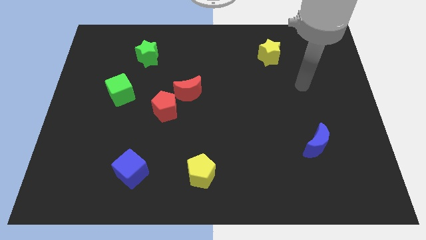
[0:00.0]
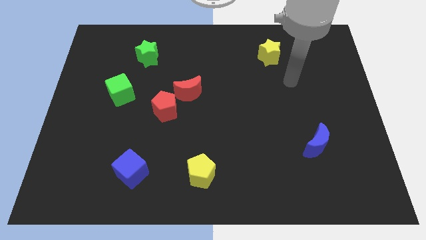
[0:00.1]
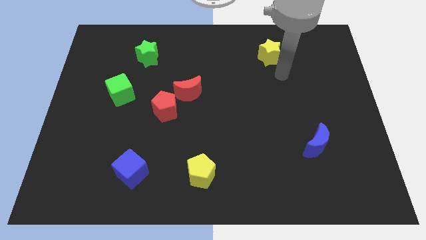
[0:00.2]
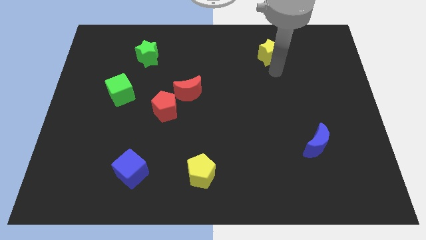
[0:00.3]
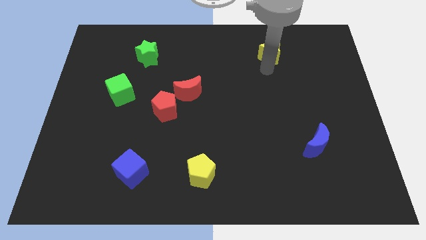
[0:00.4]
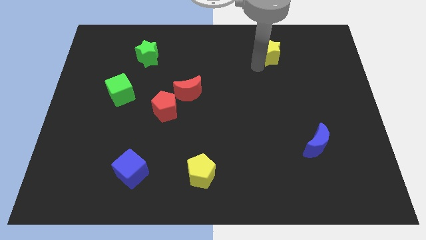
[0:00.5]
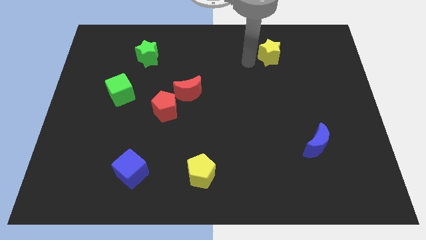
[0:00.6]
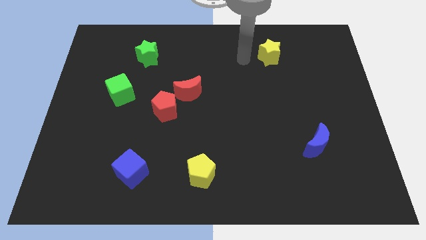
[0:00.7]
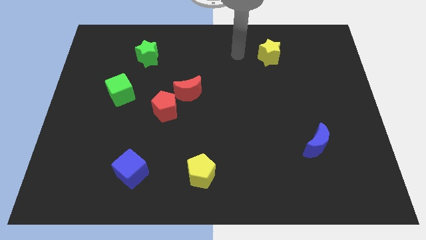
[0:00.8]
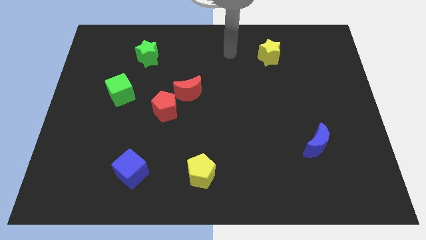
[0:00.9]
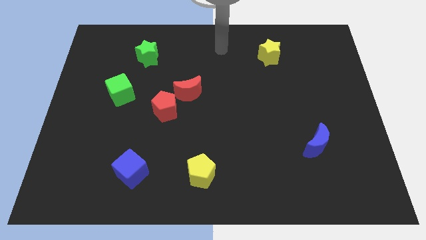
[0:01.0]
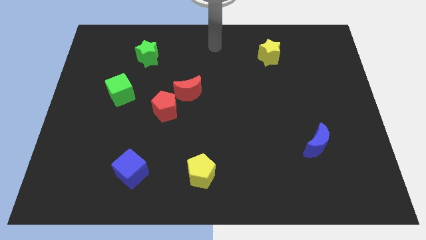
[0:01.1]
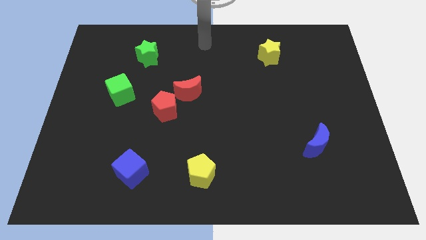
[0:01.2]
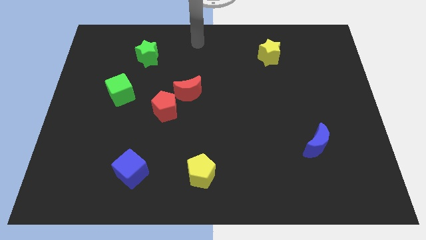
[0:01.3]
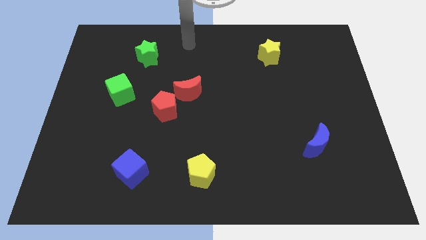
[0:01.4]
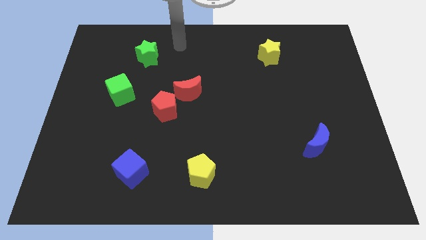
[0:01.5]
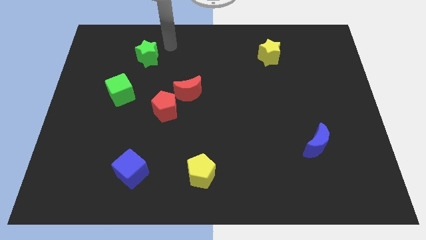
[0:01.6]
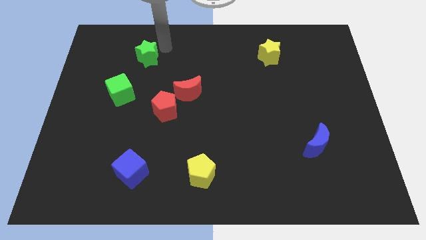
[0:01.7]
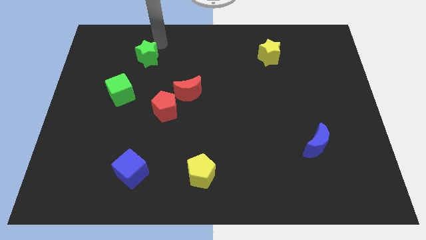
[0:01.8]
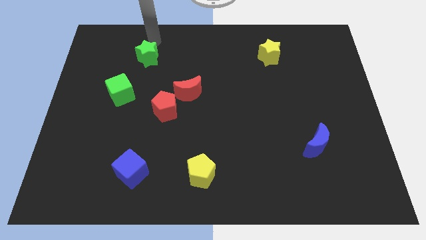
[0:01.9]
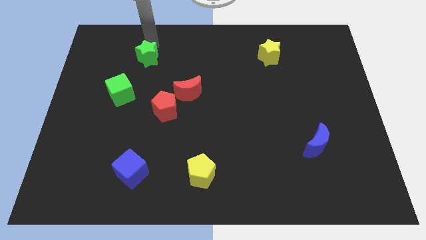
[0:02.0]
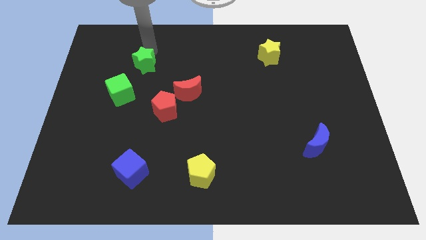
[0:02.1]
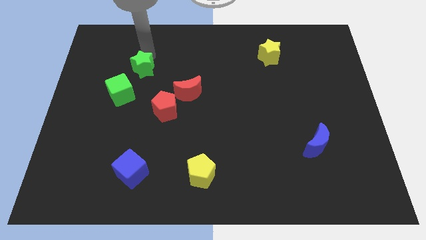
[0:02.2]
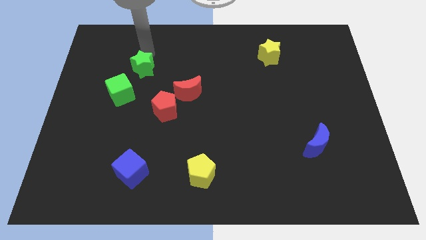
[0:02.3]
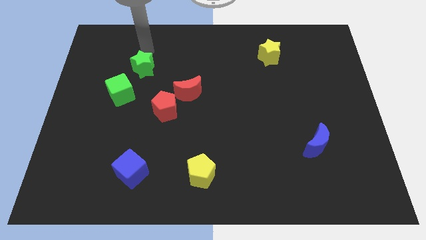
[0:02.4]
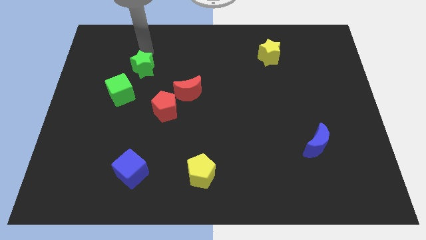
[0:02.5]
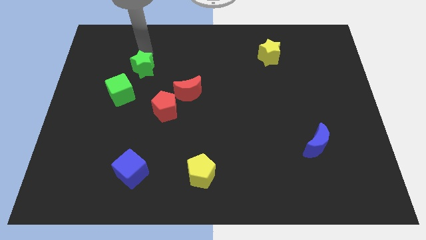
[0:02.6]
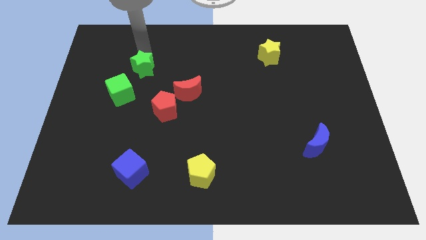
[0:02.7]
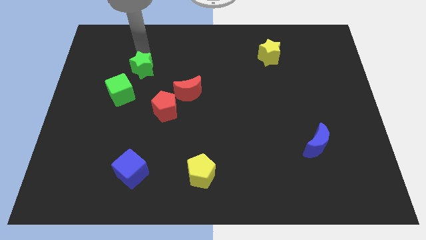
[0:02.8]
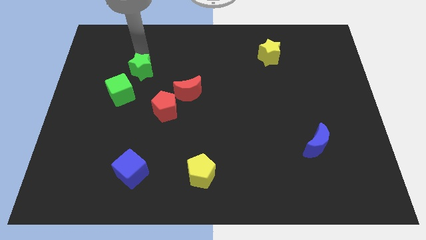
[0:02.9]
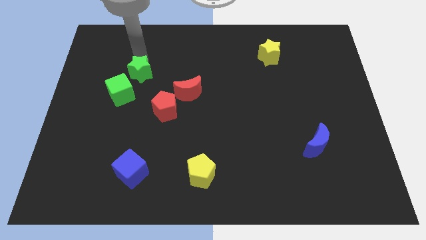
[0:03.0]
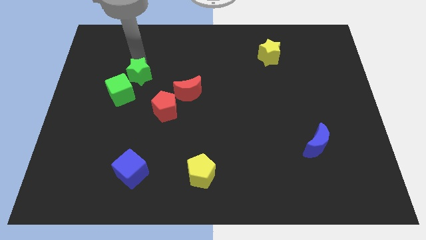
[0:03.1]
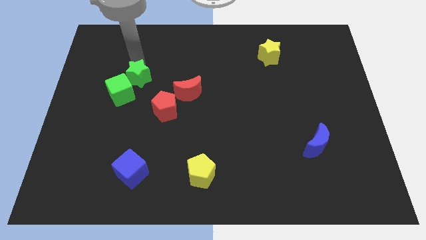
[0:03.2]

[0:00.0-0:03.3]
slide the green star a little bit down

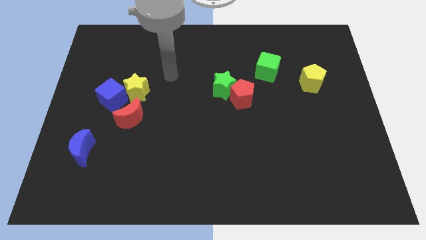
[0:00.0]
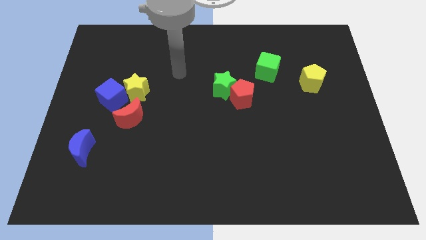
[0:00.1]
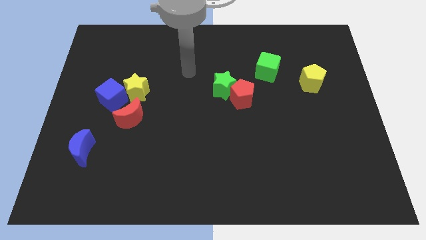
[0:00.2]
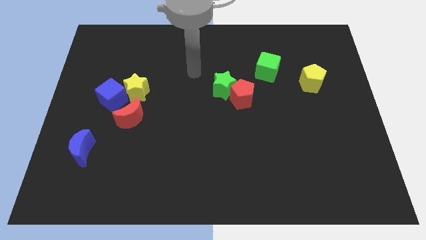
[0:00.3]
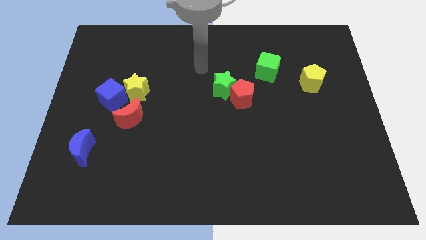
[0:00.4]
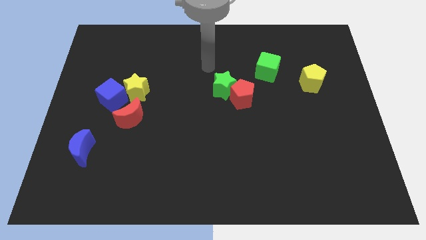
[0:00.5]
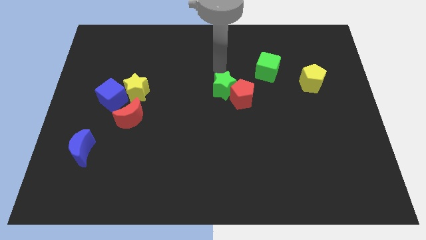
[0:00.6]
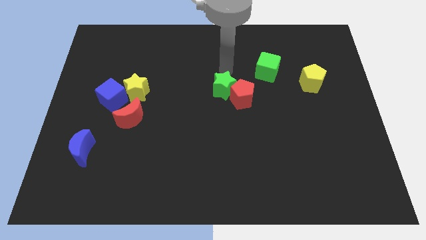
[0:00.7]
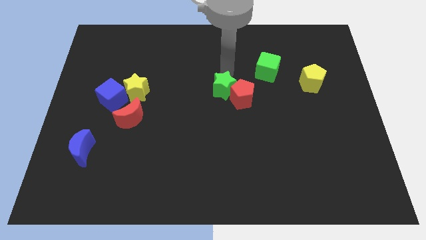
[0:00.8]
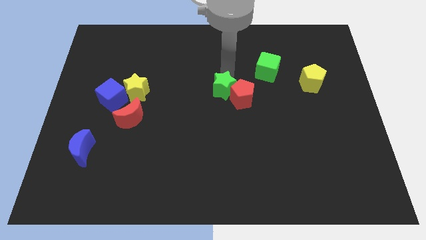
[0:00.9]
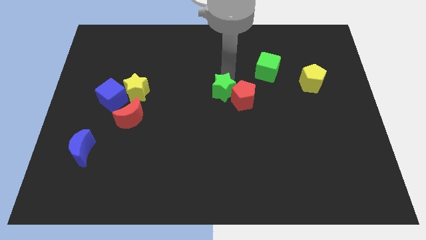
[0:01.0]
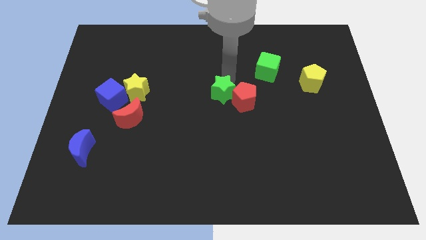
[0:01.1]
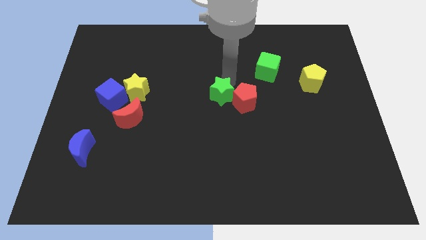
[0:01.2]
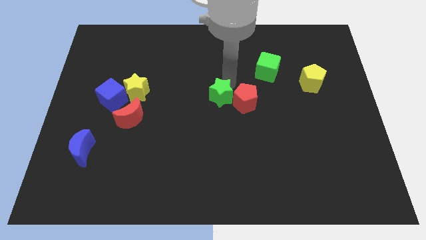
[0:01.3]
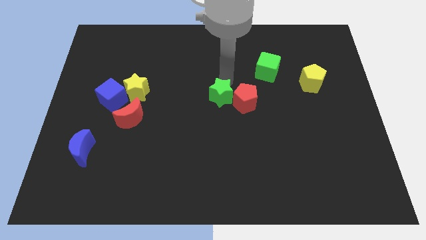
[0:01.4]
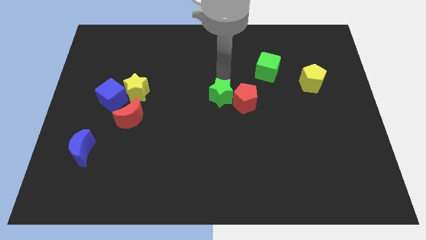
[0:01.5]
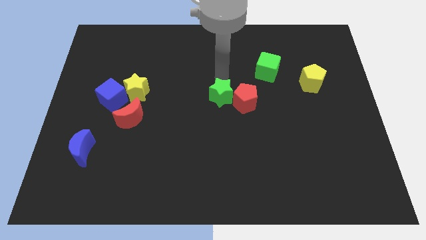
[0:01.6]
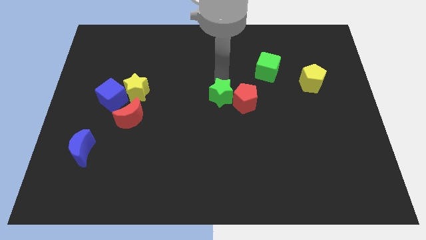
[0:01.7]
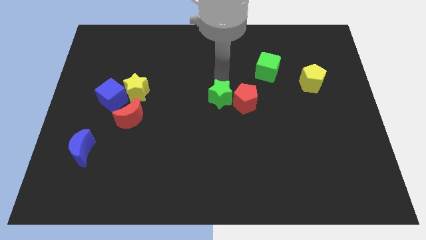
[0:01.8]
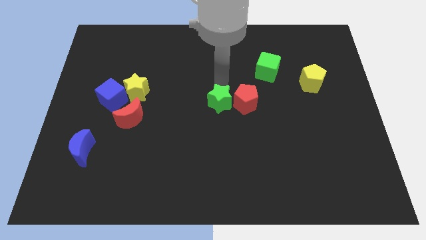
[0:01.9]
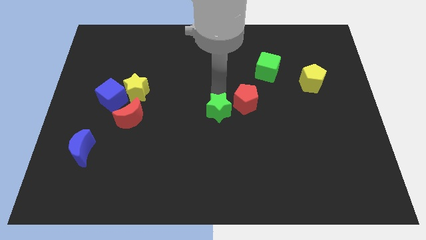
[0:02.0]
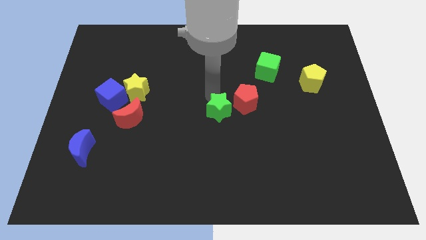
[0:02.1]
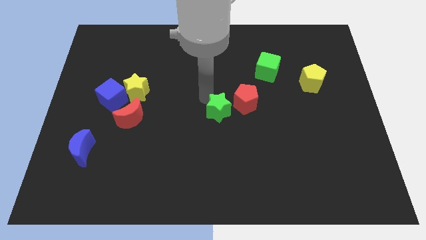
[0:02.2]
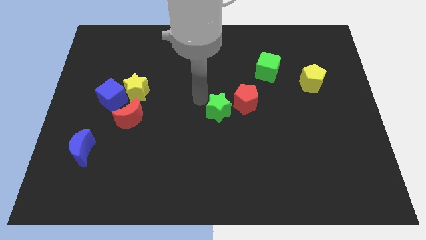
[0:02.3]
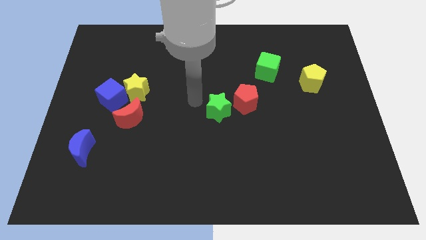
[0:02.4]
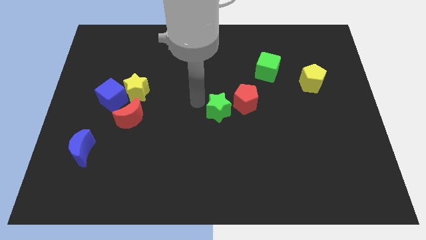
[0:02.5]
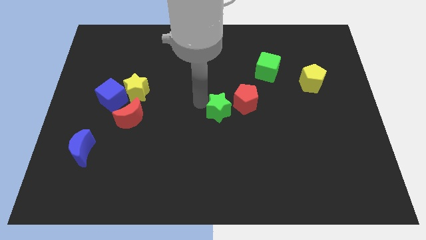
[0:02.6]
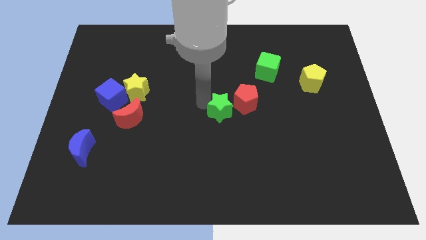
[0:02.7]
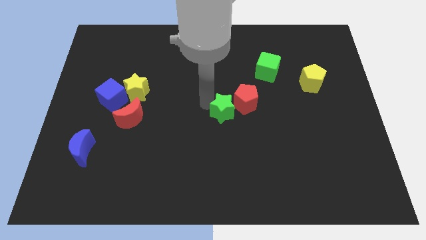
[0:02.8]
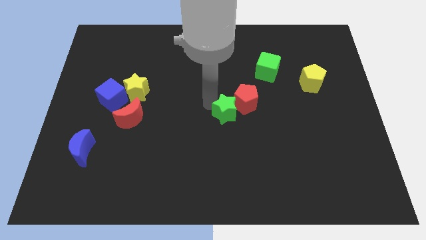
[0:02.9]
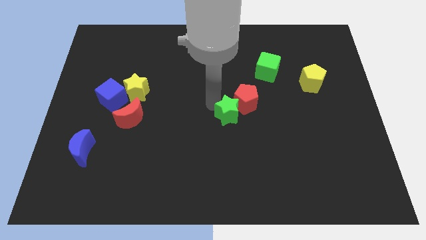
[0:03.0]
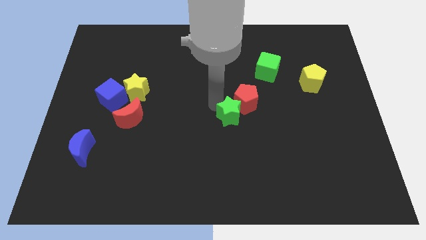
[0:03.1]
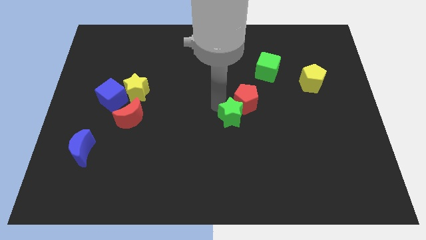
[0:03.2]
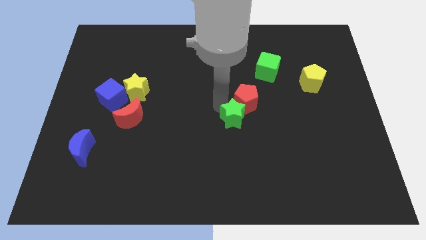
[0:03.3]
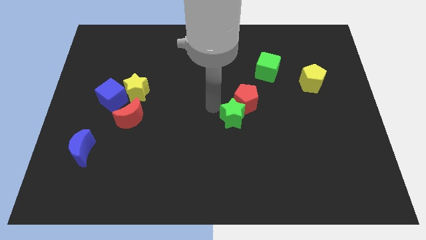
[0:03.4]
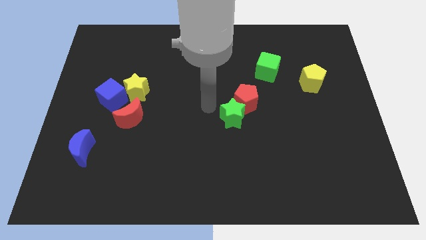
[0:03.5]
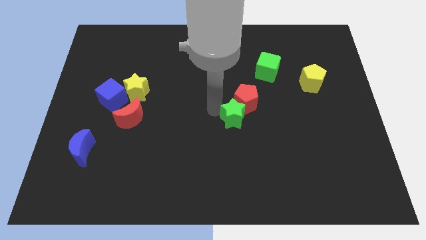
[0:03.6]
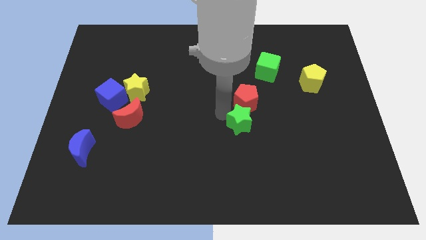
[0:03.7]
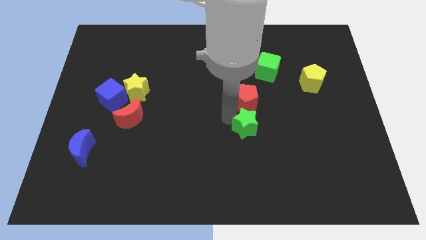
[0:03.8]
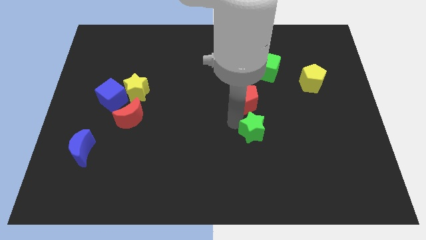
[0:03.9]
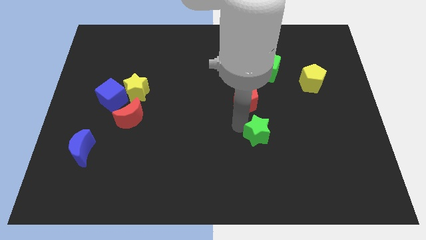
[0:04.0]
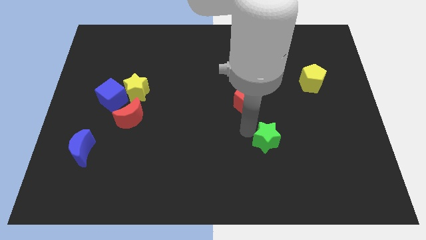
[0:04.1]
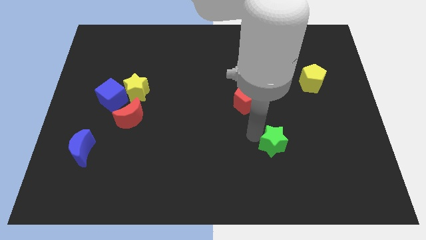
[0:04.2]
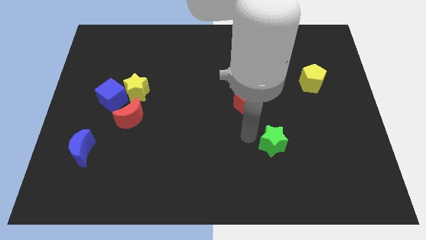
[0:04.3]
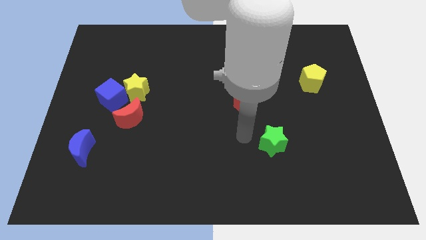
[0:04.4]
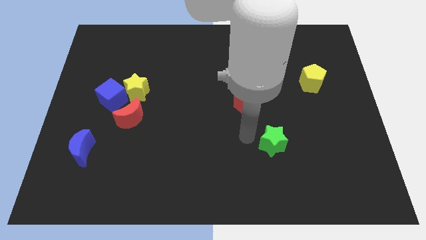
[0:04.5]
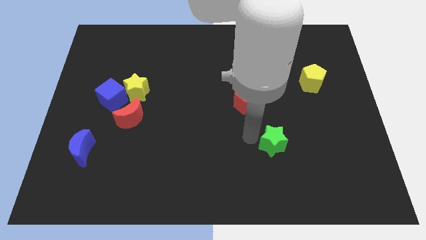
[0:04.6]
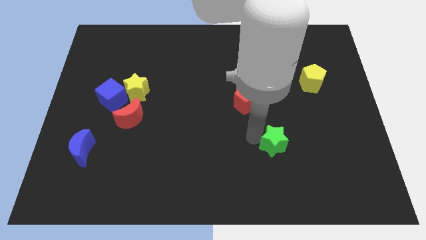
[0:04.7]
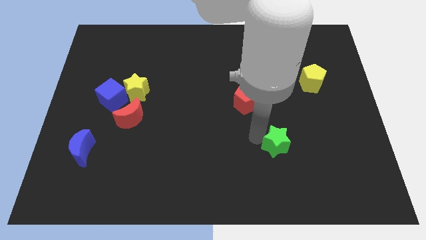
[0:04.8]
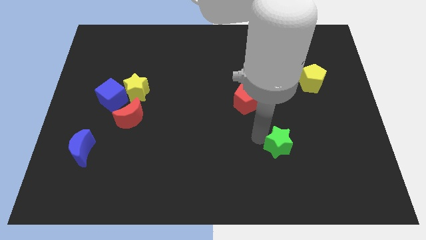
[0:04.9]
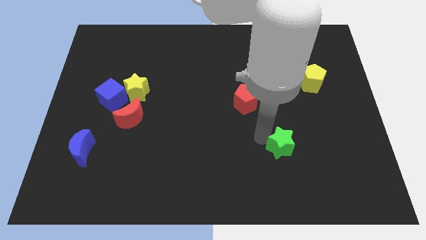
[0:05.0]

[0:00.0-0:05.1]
push the green star diagonally down and right
